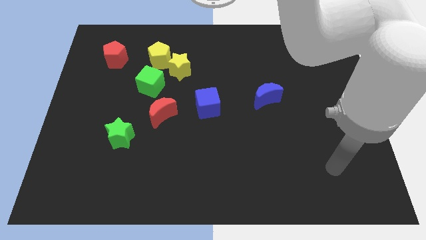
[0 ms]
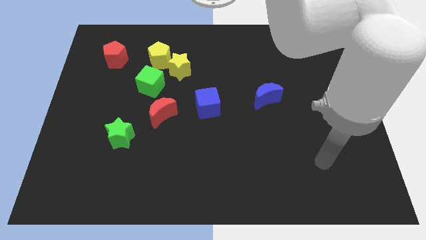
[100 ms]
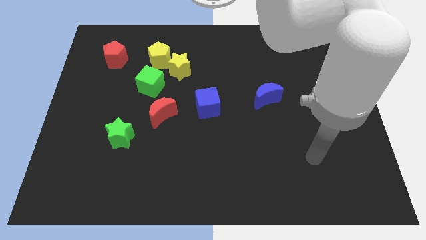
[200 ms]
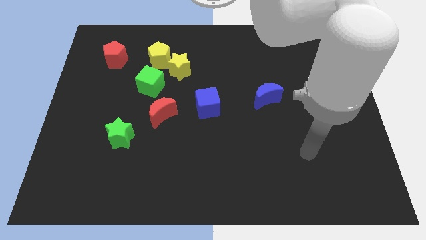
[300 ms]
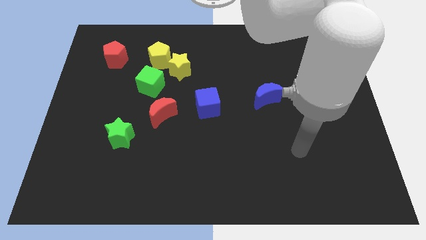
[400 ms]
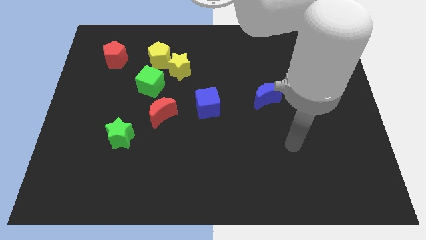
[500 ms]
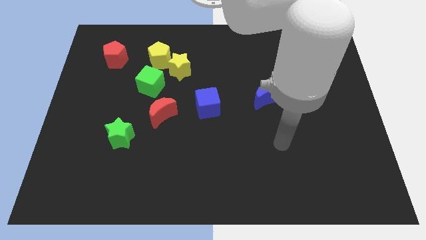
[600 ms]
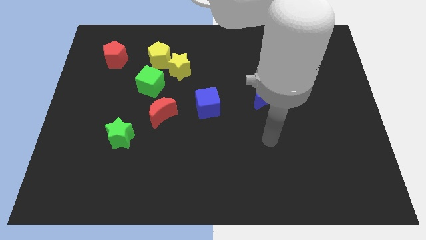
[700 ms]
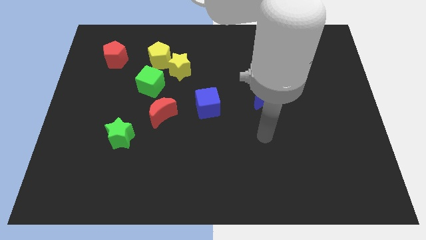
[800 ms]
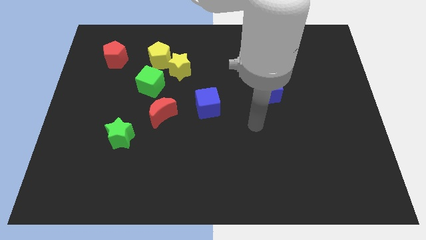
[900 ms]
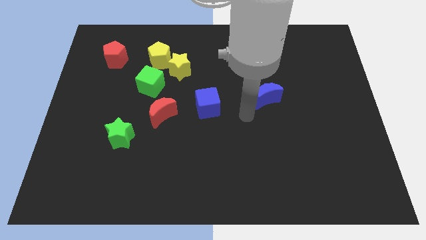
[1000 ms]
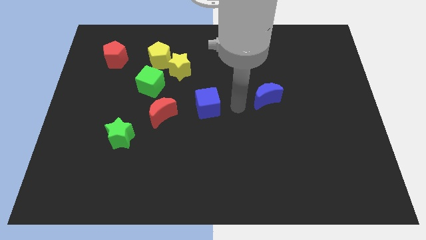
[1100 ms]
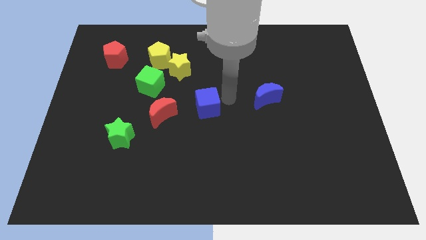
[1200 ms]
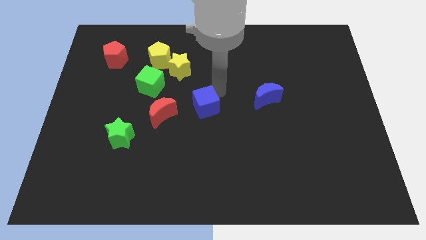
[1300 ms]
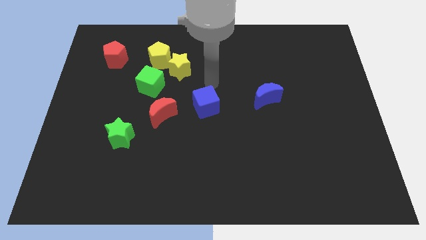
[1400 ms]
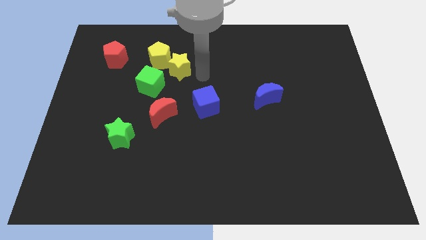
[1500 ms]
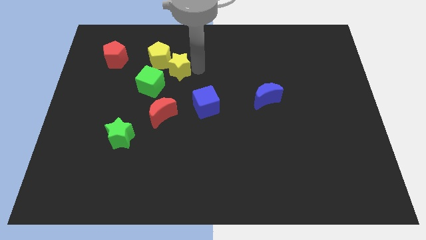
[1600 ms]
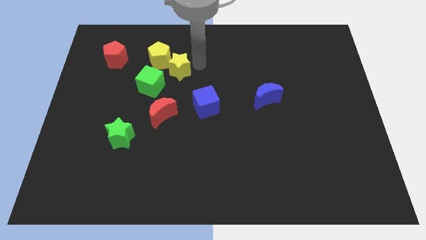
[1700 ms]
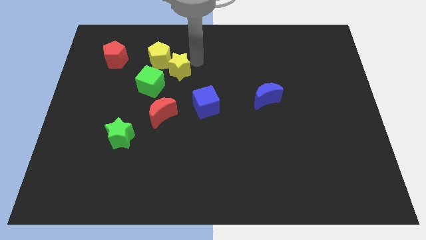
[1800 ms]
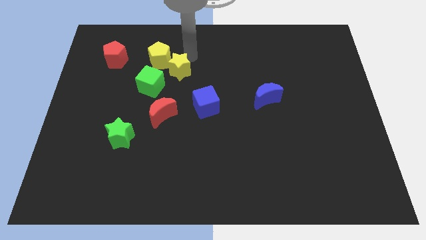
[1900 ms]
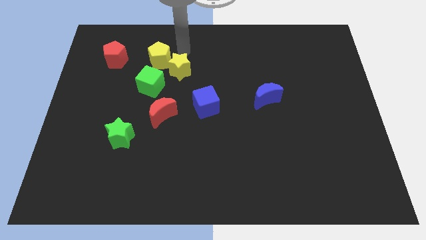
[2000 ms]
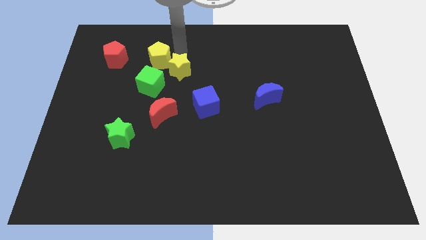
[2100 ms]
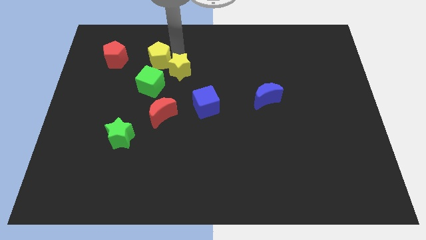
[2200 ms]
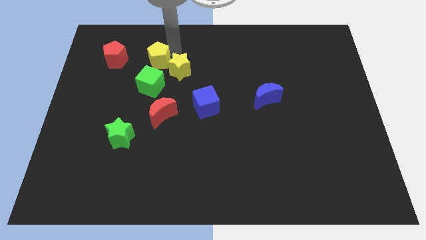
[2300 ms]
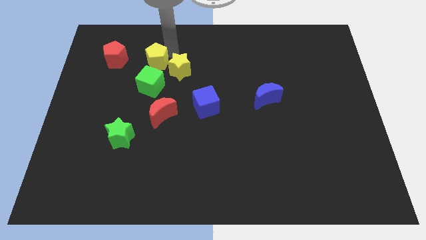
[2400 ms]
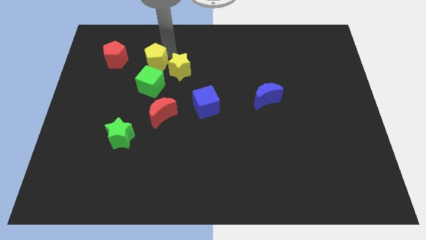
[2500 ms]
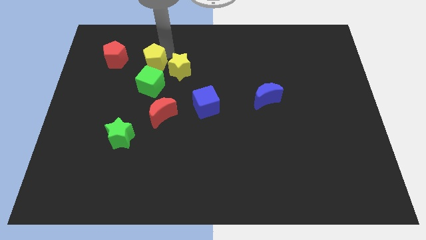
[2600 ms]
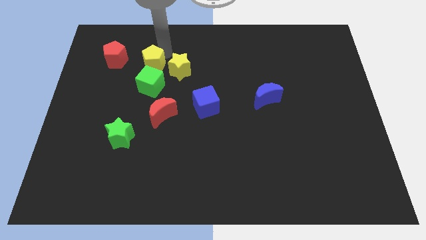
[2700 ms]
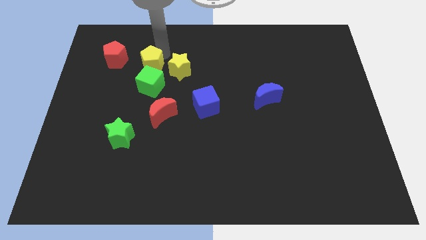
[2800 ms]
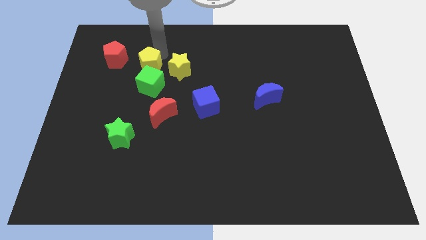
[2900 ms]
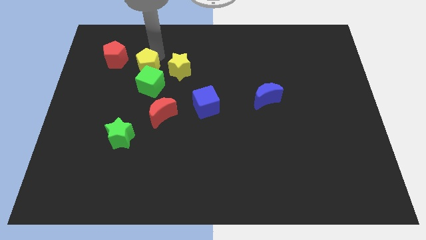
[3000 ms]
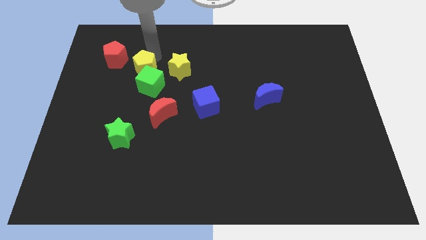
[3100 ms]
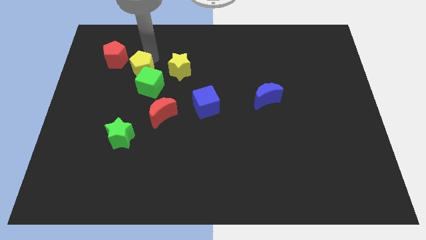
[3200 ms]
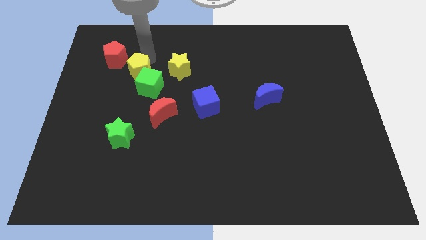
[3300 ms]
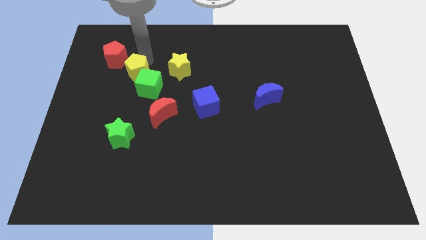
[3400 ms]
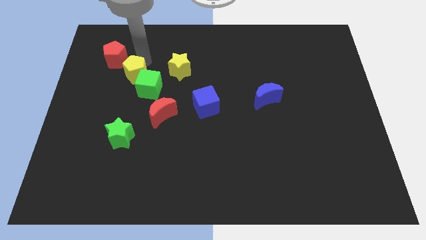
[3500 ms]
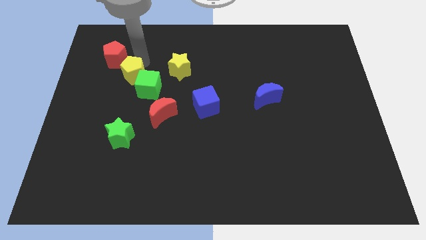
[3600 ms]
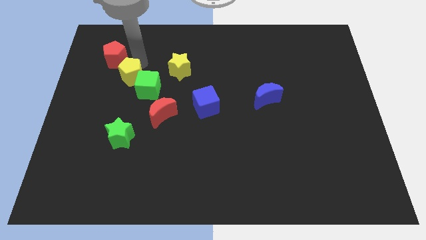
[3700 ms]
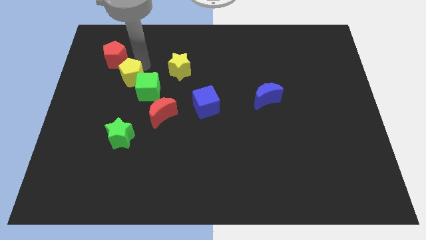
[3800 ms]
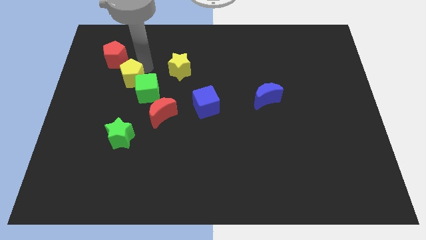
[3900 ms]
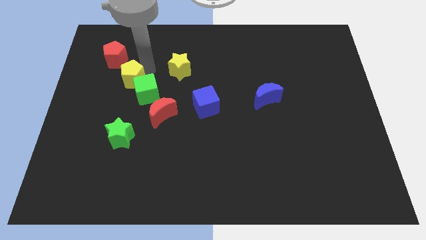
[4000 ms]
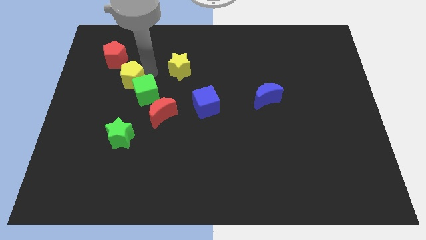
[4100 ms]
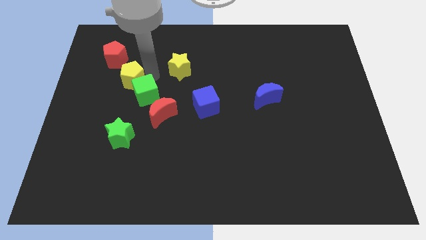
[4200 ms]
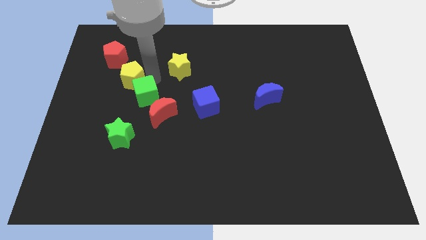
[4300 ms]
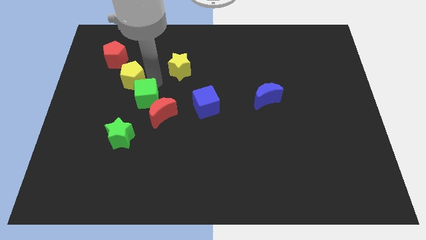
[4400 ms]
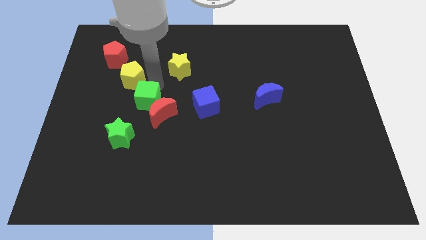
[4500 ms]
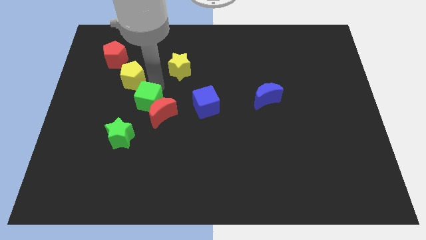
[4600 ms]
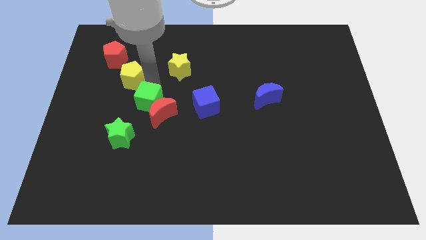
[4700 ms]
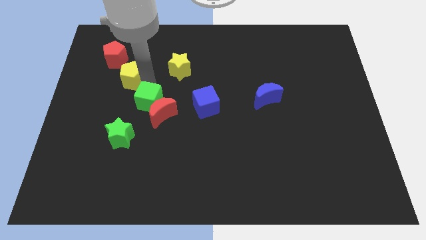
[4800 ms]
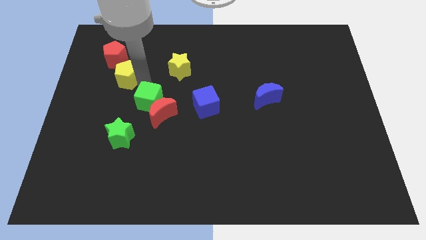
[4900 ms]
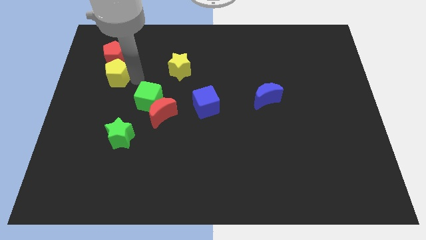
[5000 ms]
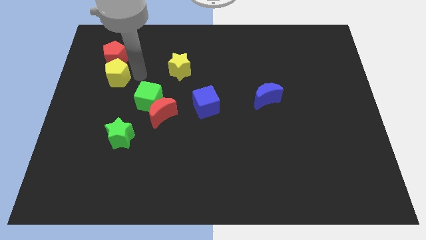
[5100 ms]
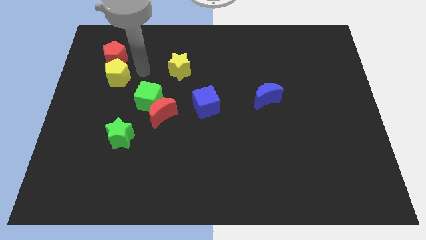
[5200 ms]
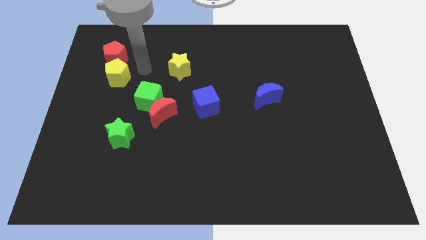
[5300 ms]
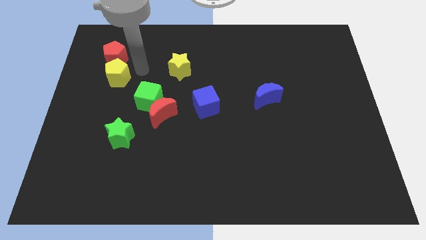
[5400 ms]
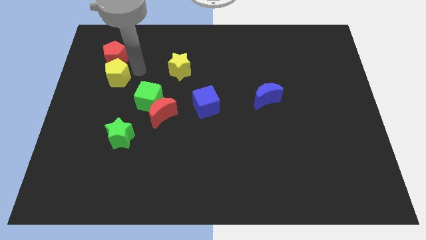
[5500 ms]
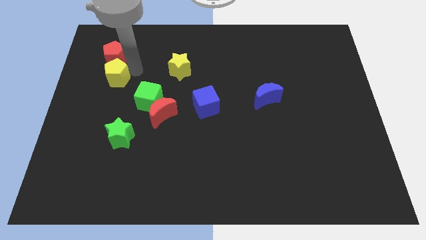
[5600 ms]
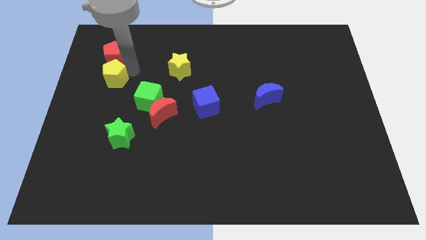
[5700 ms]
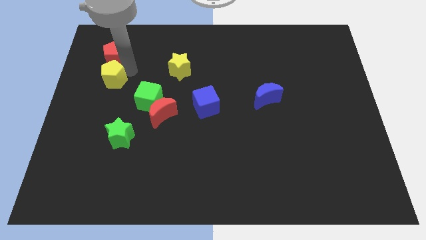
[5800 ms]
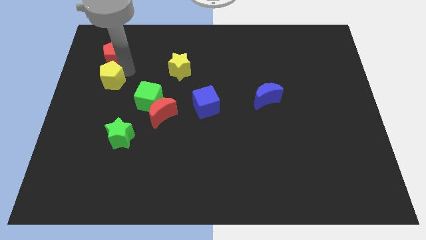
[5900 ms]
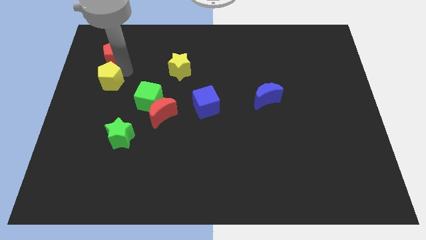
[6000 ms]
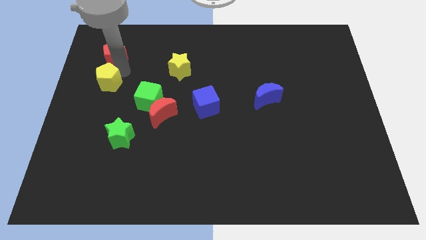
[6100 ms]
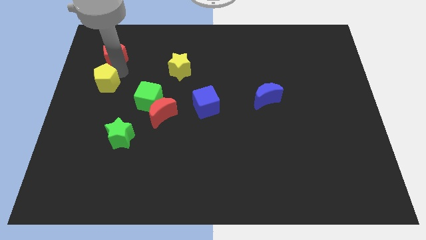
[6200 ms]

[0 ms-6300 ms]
slide the yellow pentagon to the left side

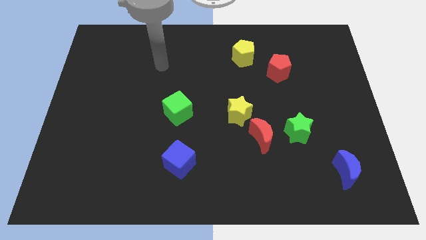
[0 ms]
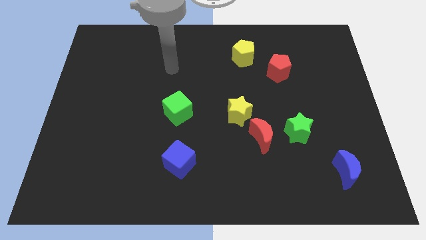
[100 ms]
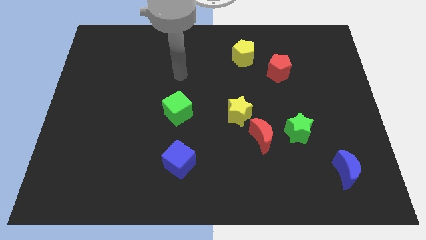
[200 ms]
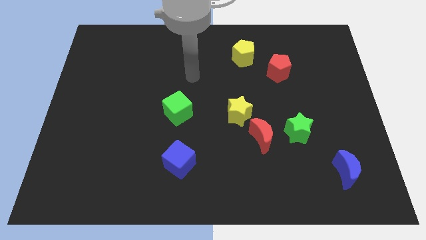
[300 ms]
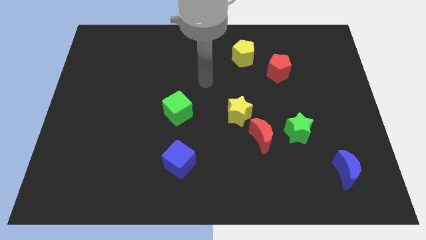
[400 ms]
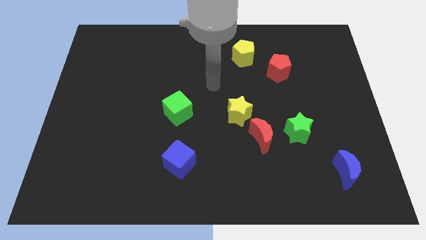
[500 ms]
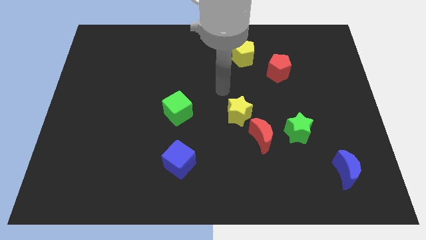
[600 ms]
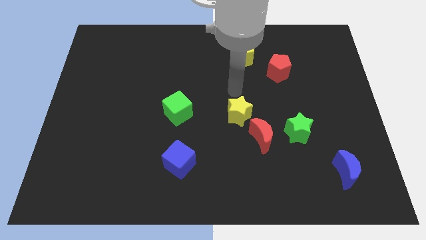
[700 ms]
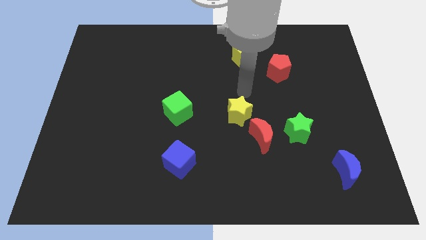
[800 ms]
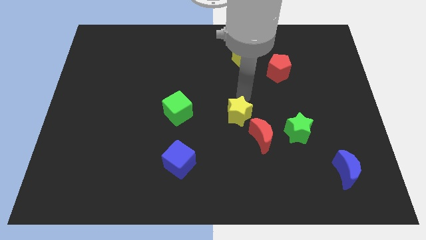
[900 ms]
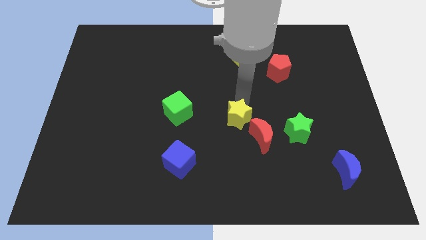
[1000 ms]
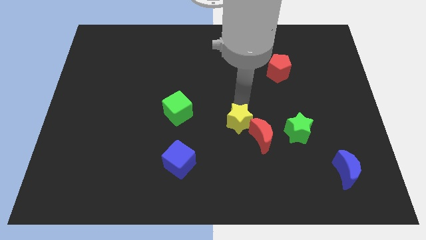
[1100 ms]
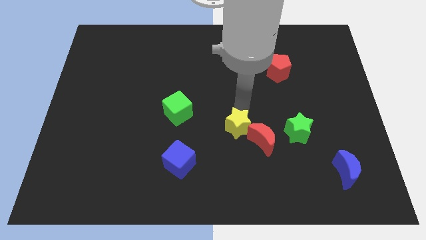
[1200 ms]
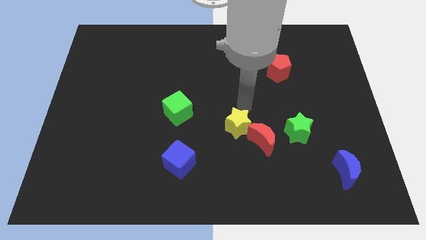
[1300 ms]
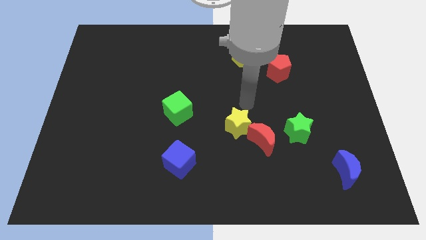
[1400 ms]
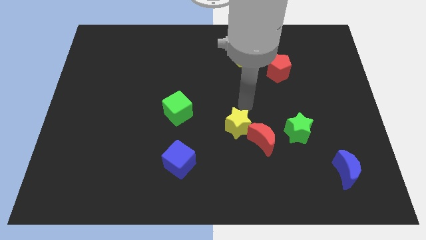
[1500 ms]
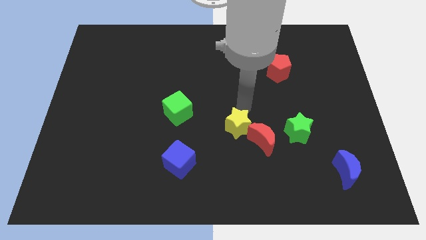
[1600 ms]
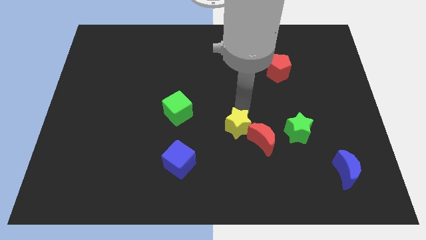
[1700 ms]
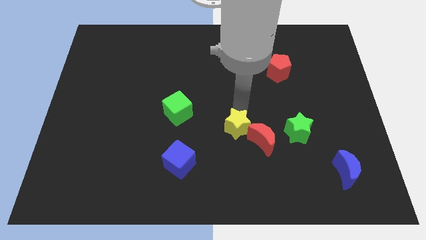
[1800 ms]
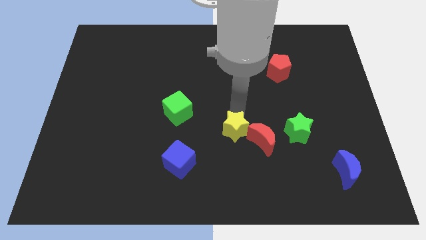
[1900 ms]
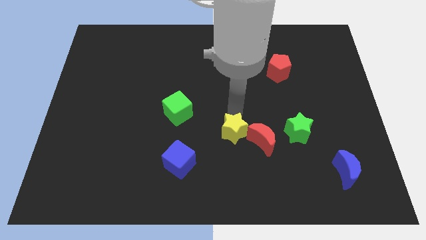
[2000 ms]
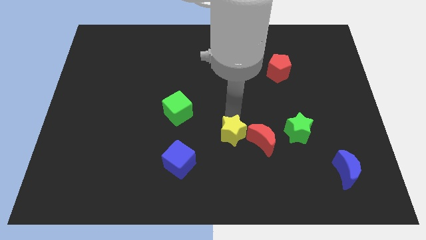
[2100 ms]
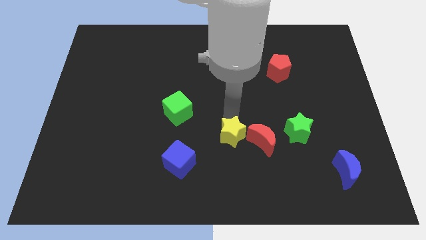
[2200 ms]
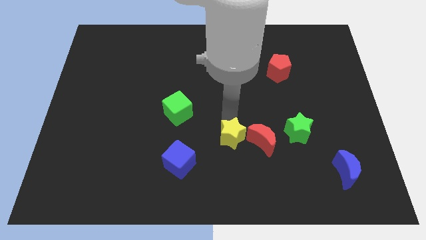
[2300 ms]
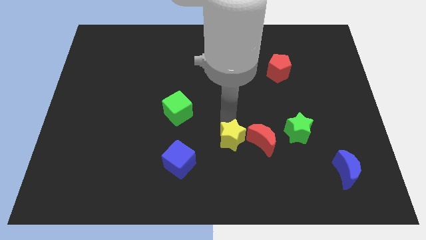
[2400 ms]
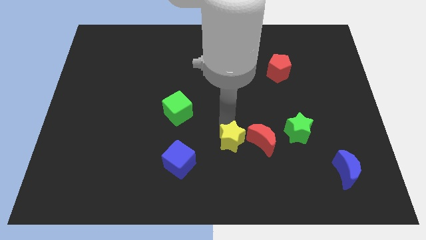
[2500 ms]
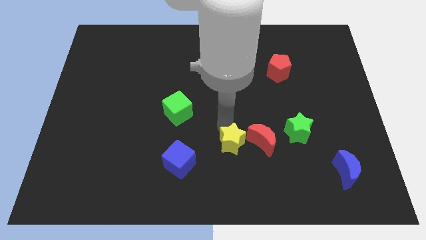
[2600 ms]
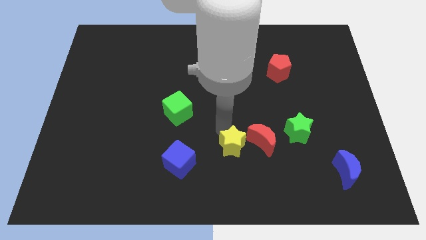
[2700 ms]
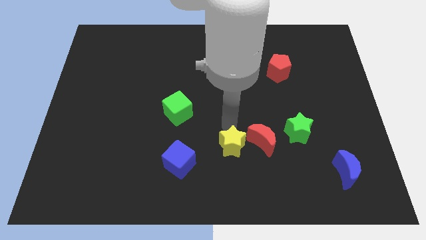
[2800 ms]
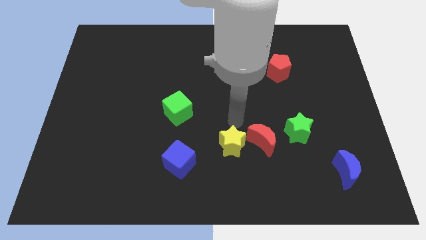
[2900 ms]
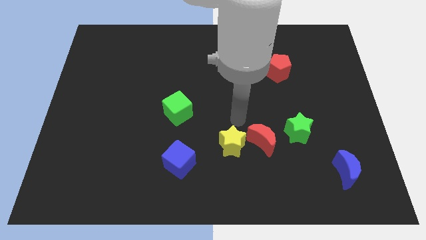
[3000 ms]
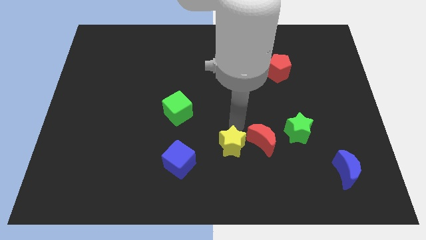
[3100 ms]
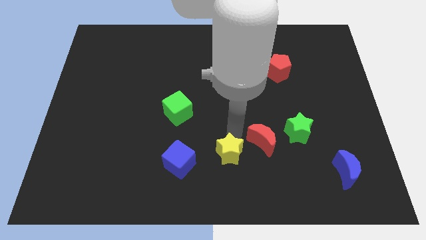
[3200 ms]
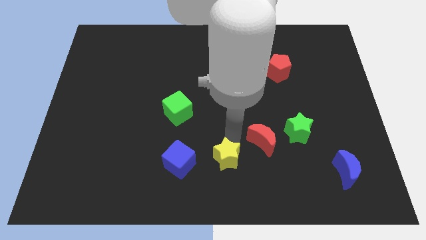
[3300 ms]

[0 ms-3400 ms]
push the yellow star to the bottom
